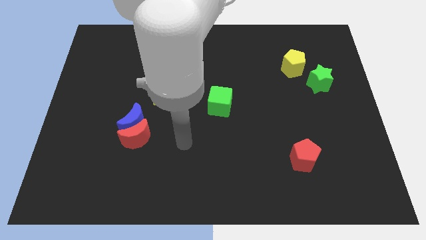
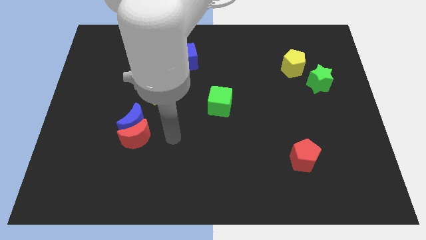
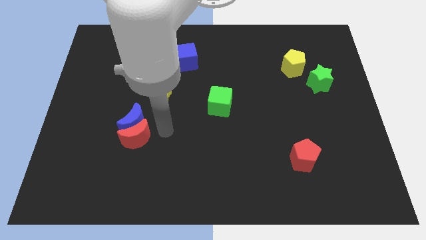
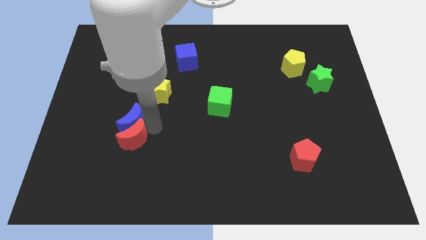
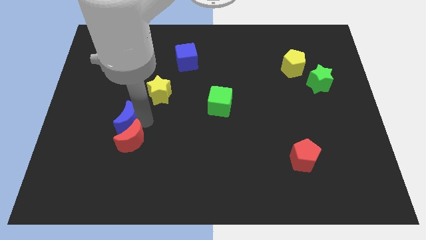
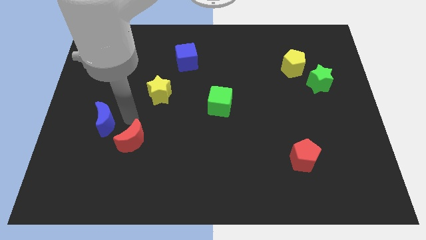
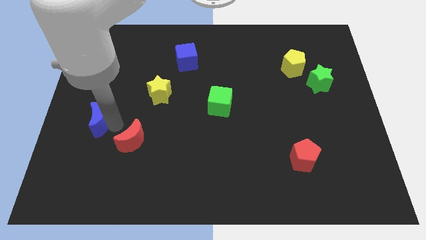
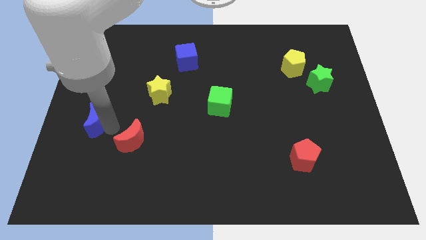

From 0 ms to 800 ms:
move the red moon away from the blue moon

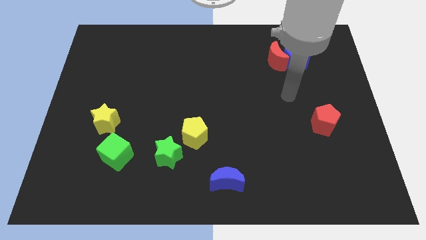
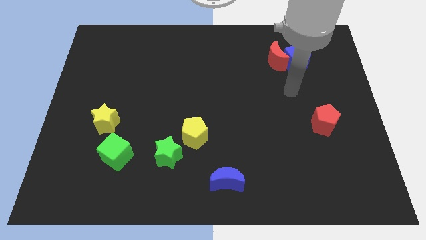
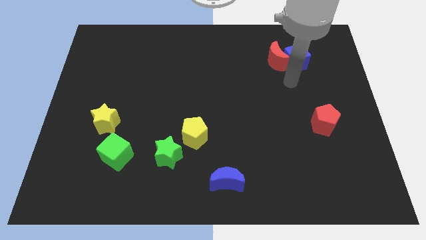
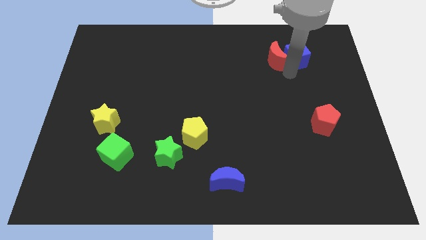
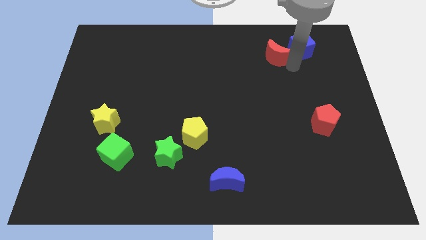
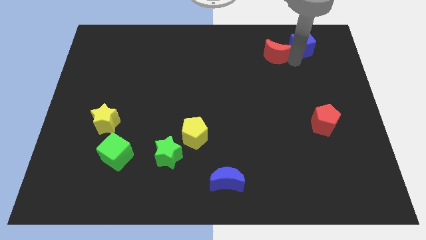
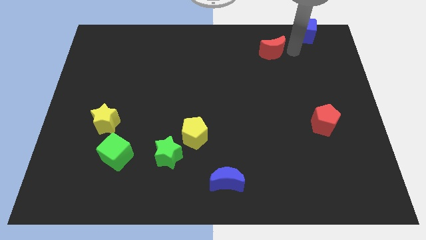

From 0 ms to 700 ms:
move the red moon away from the blue cube

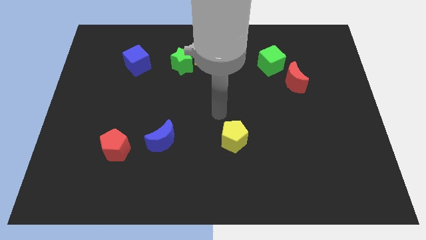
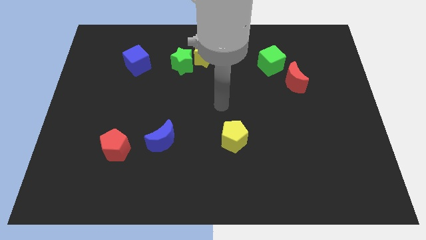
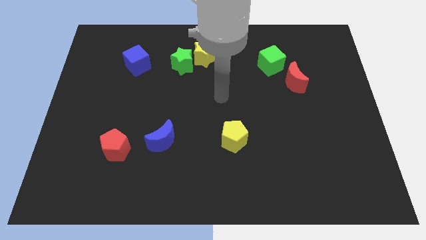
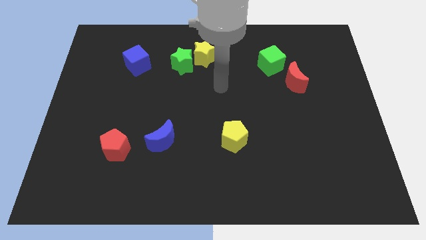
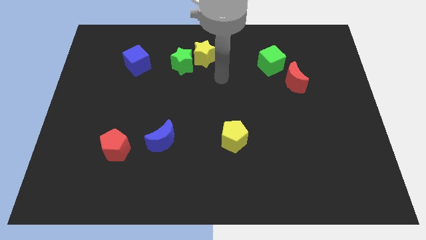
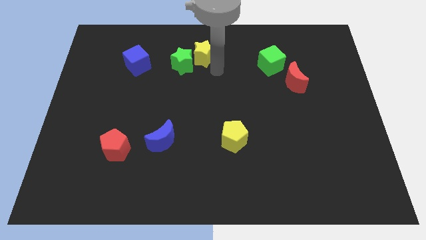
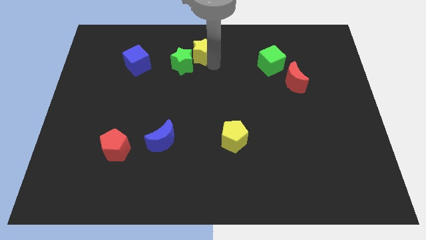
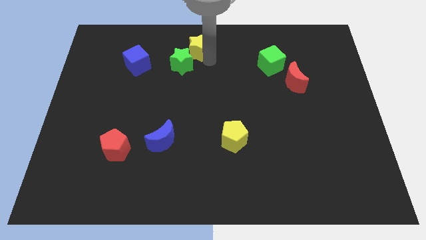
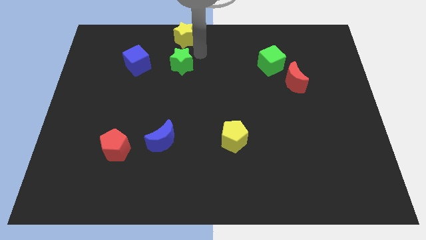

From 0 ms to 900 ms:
move the green star away from the yellow star

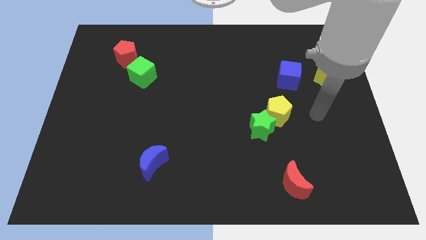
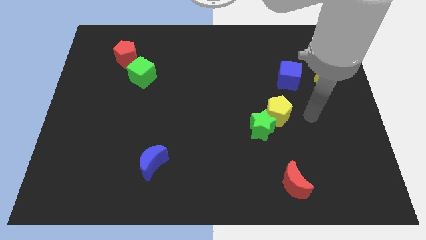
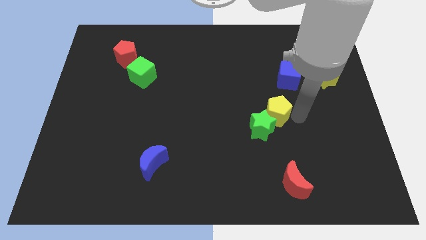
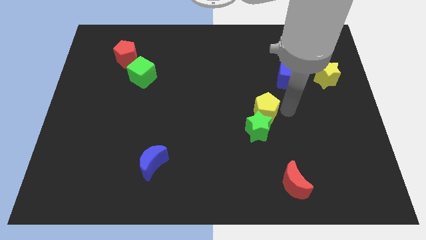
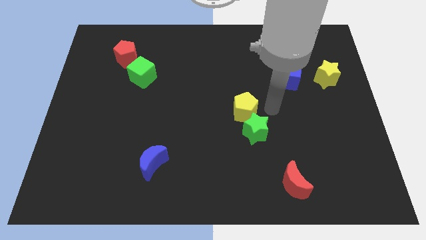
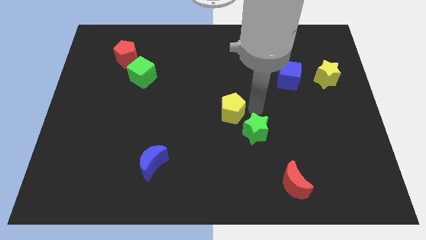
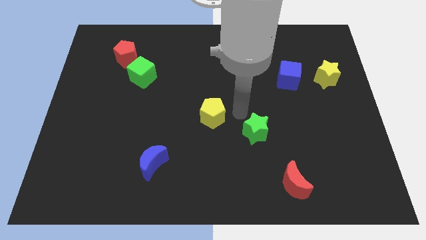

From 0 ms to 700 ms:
pull the green star apart from the yellow pentagon

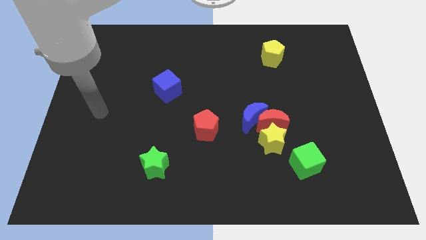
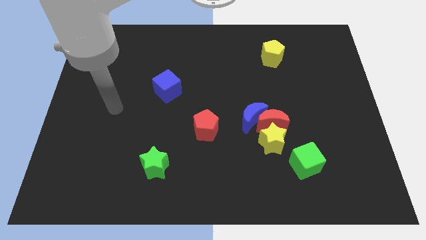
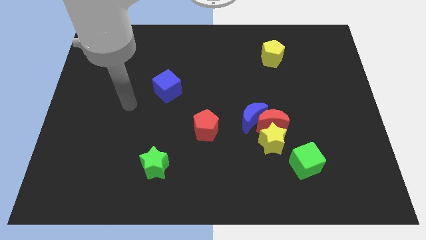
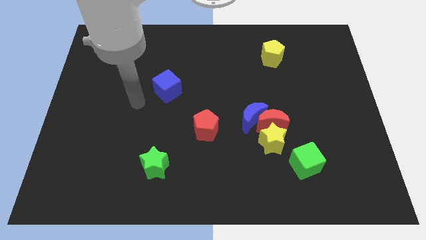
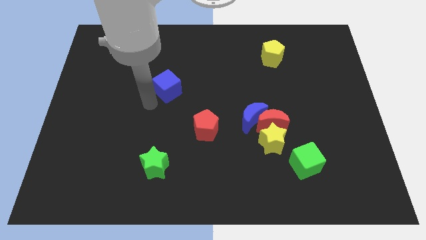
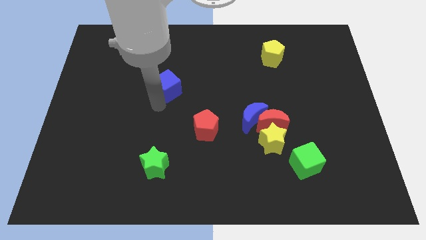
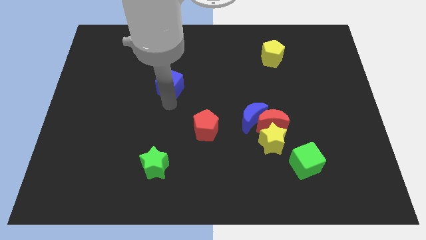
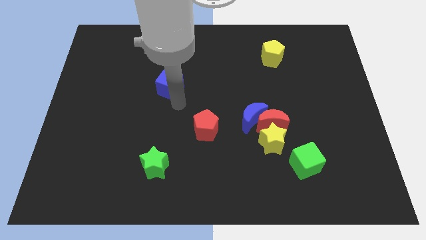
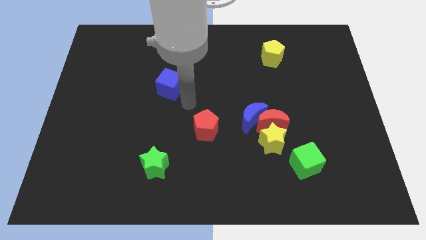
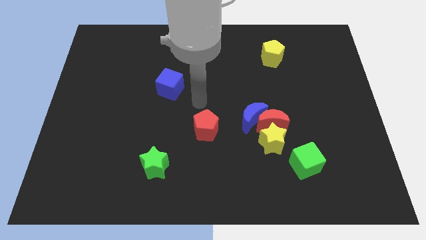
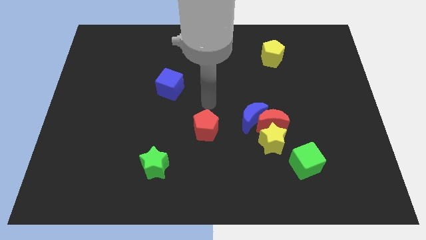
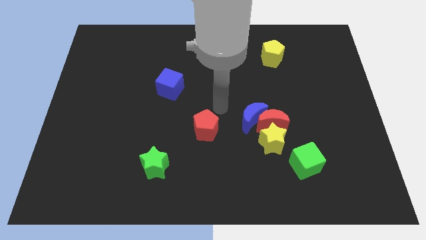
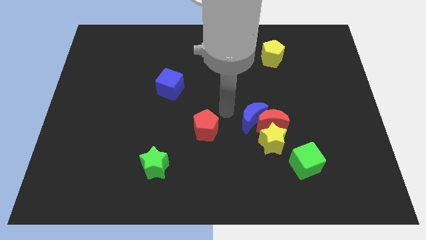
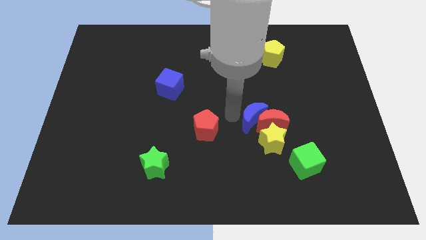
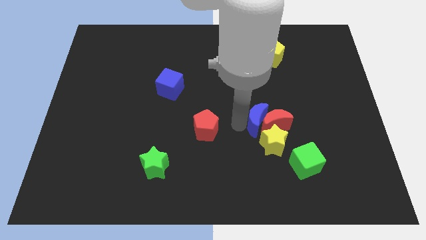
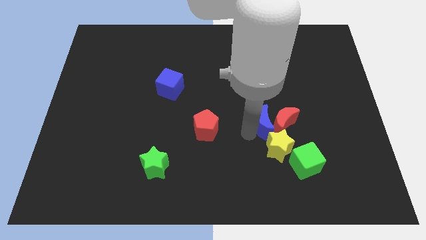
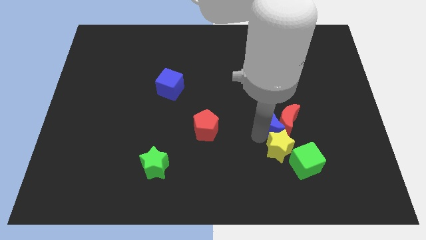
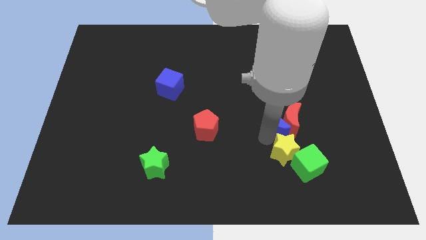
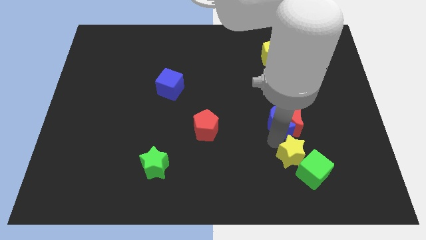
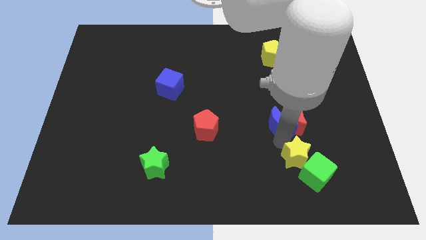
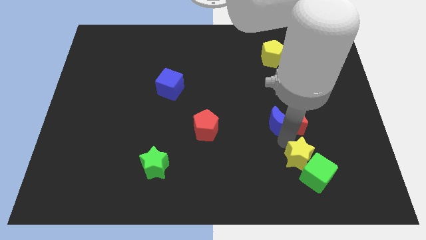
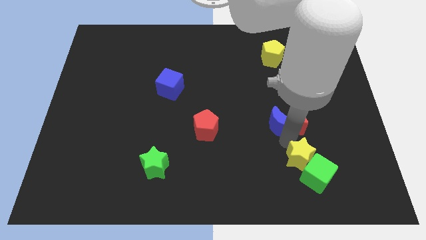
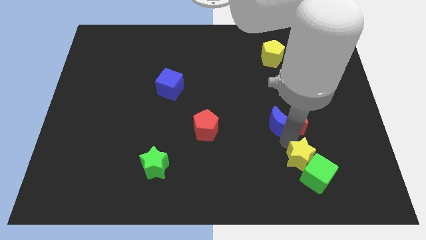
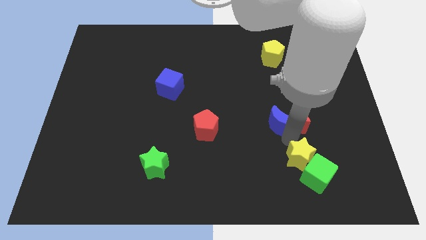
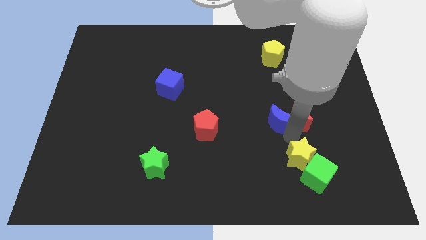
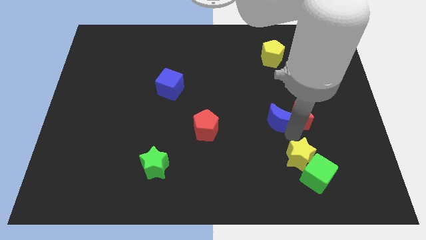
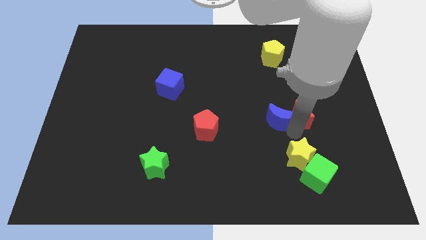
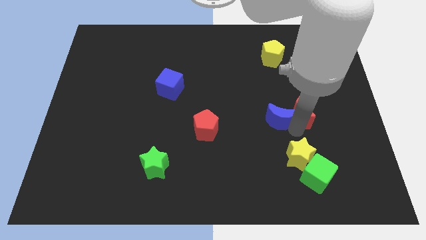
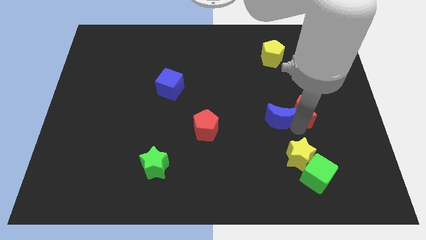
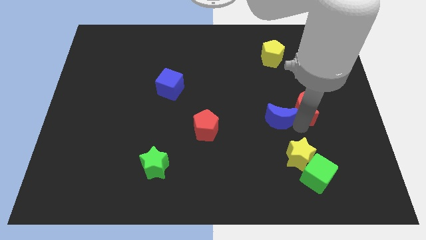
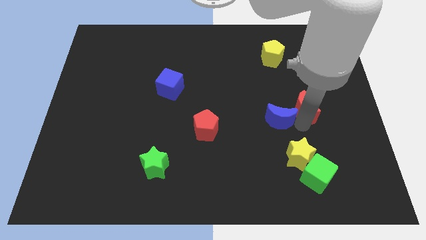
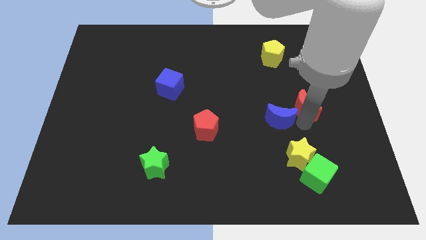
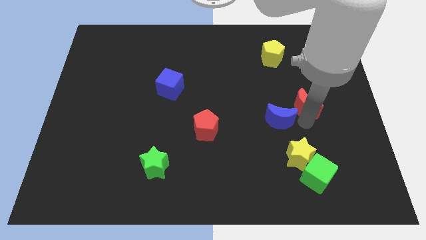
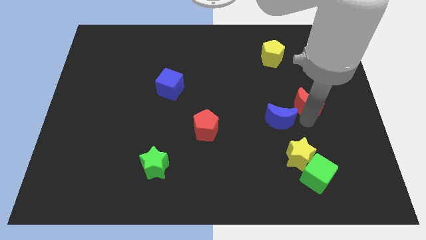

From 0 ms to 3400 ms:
separate the red moon from the blue moon and yellow star

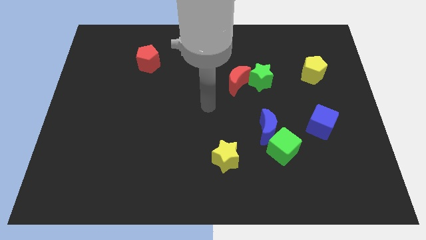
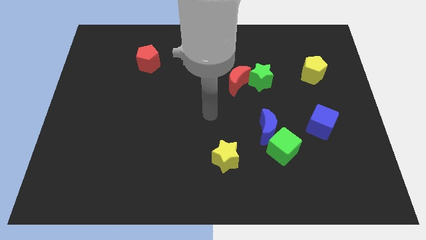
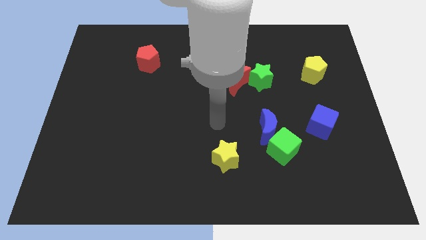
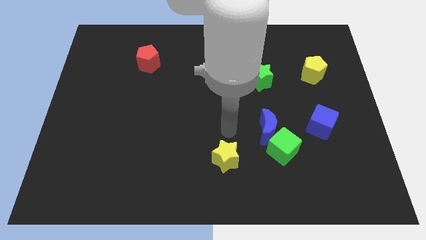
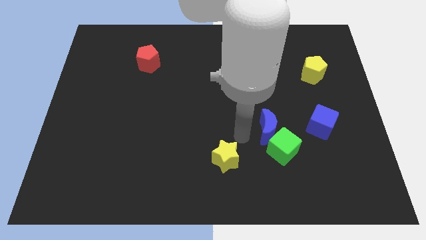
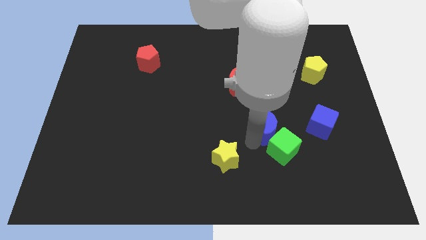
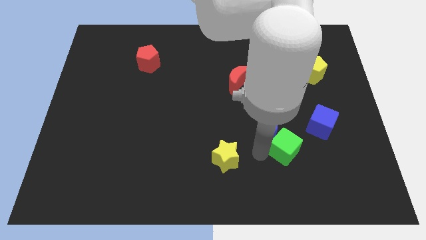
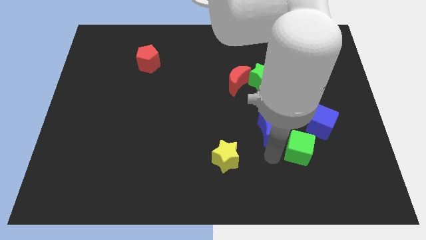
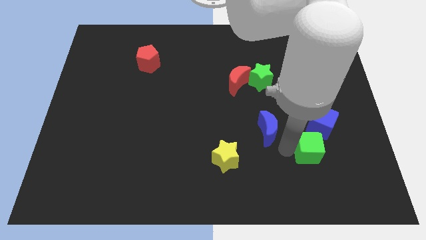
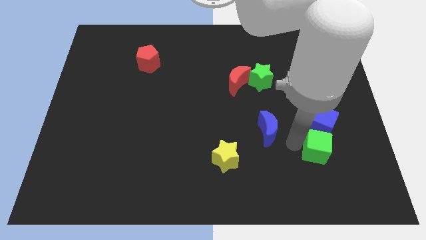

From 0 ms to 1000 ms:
separate the blue moon from the green cube

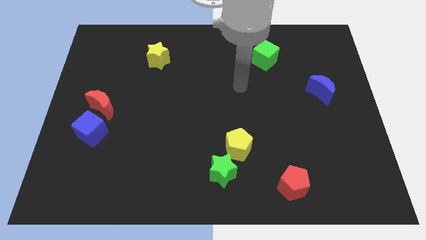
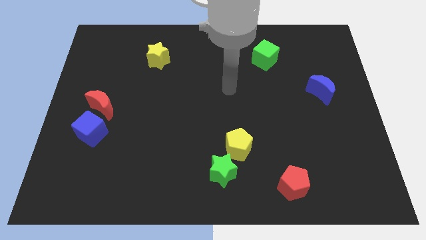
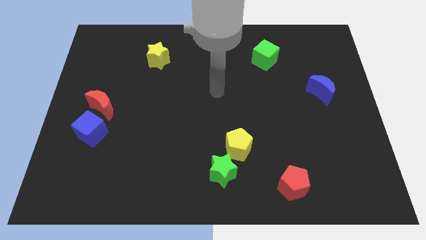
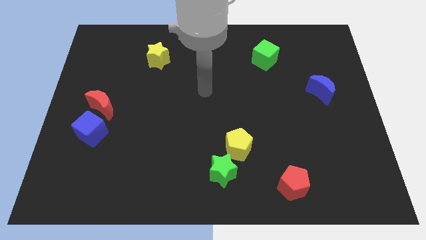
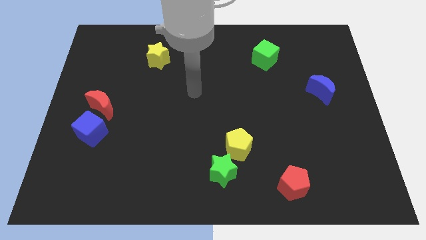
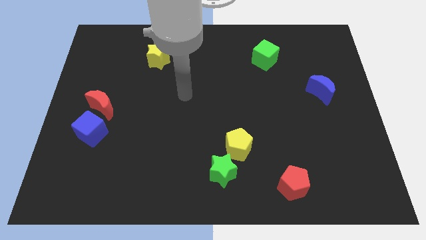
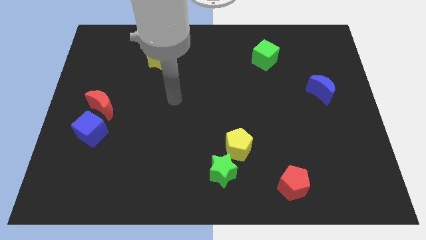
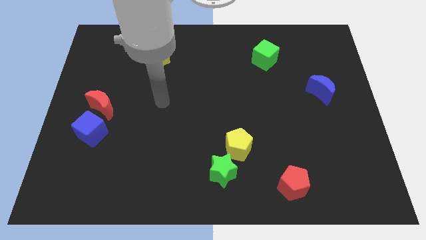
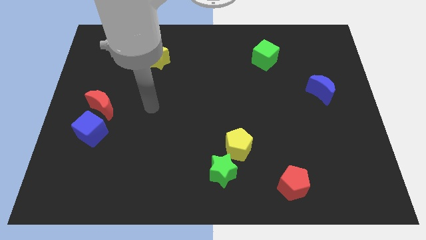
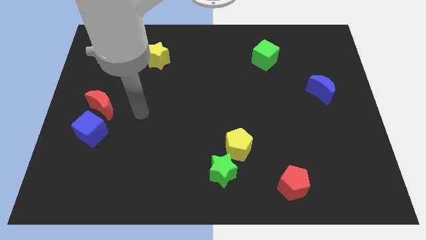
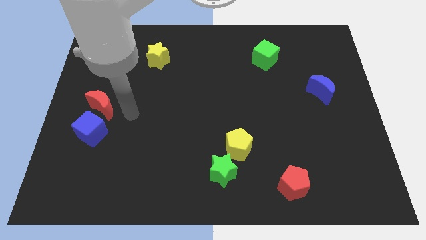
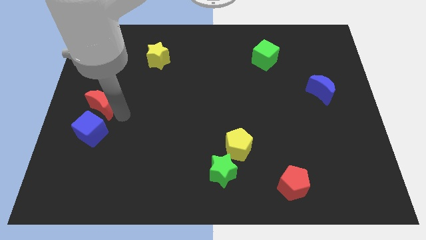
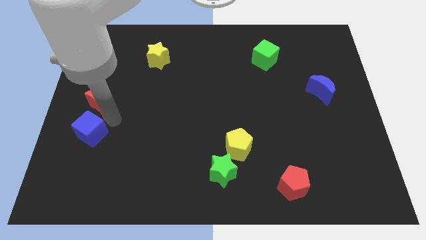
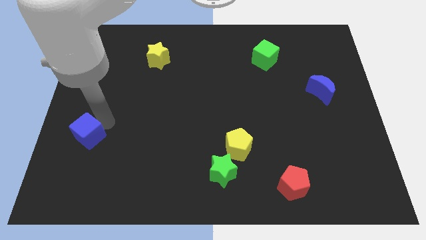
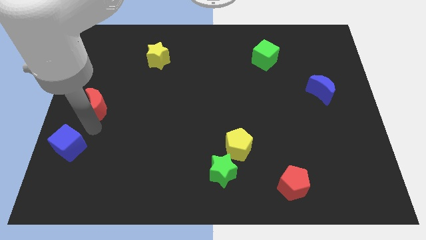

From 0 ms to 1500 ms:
separate the red moon from the blue cube

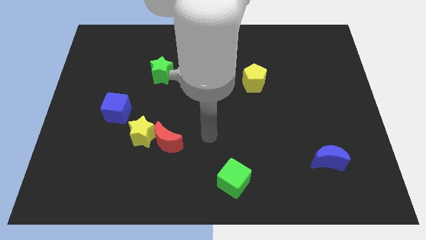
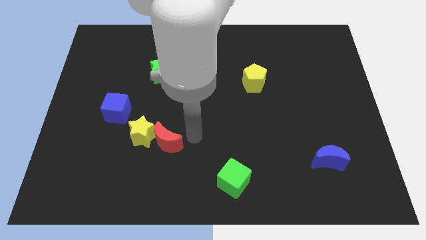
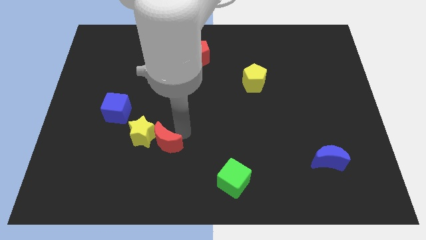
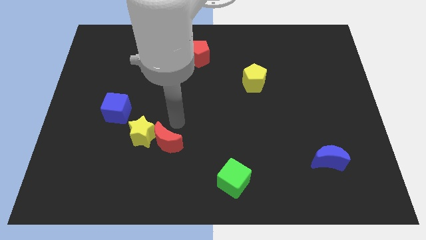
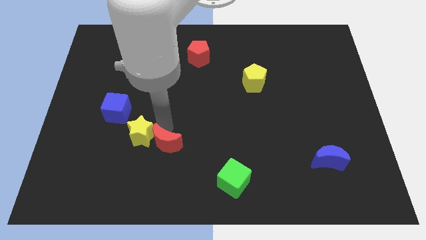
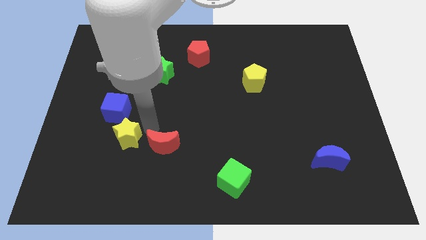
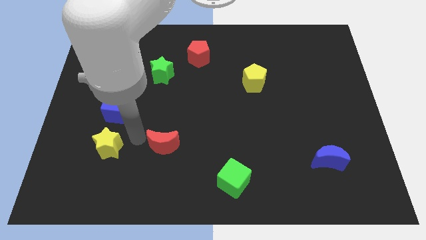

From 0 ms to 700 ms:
separate the red moon from the yellow star
